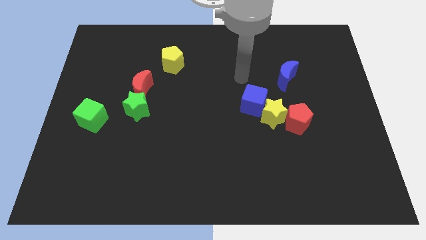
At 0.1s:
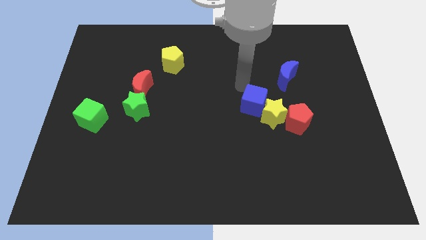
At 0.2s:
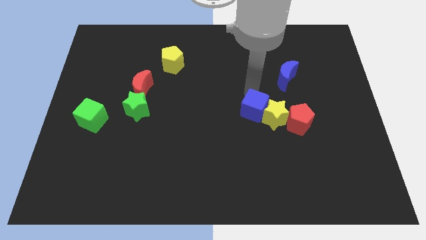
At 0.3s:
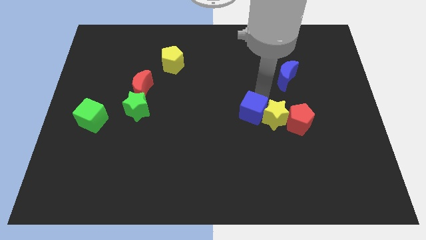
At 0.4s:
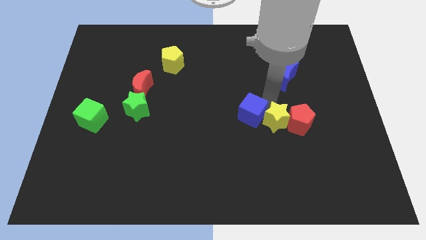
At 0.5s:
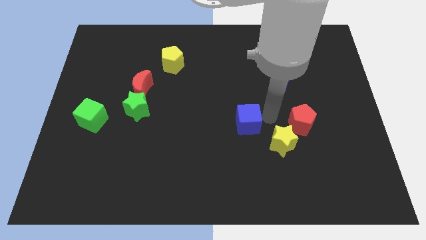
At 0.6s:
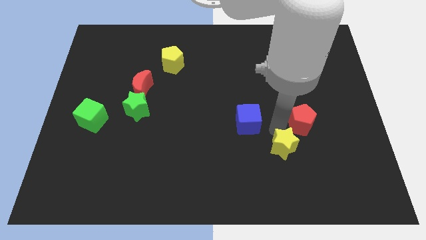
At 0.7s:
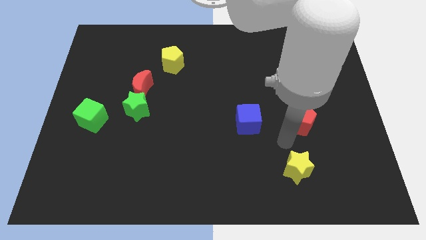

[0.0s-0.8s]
separate the red pentagon from the yellow star

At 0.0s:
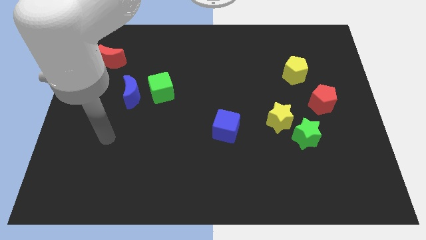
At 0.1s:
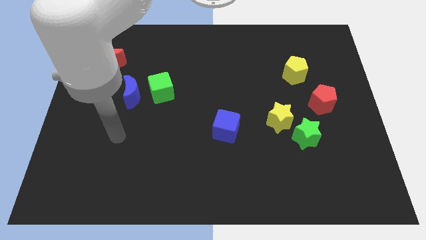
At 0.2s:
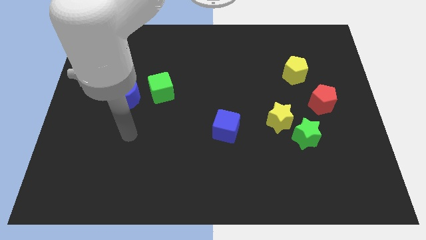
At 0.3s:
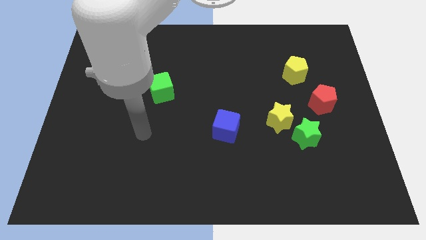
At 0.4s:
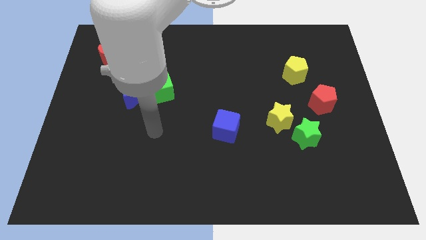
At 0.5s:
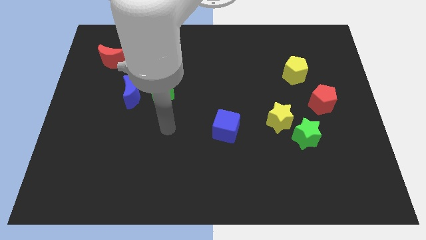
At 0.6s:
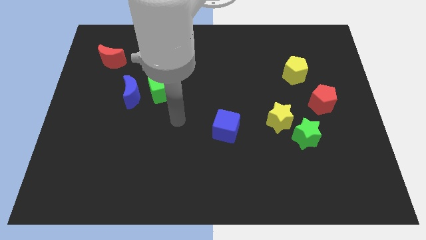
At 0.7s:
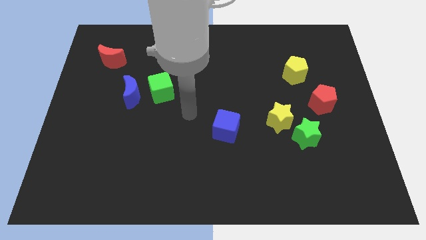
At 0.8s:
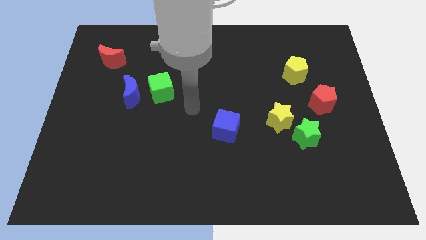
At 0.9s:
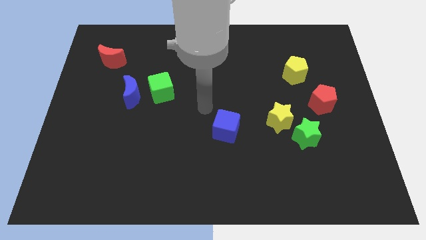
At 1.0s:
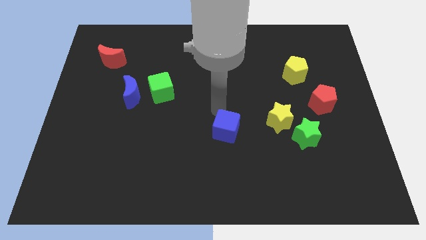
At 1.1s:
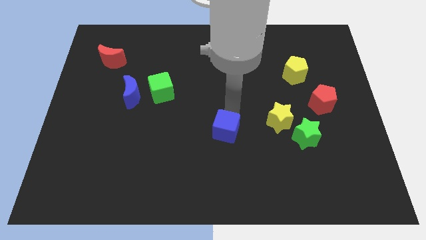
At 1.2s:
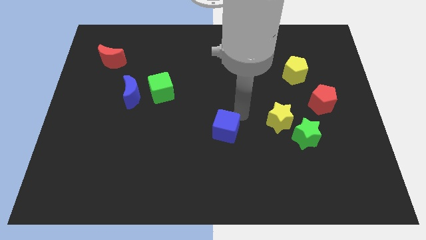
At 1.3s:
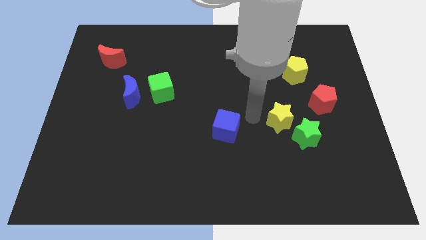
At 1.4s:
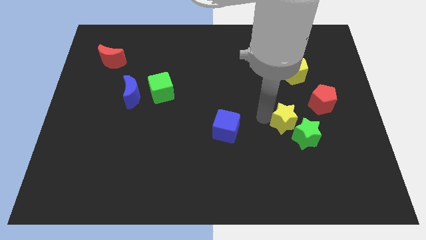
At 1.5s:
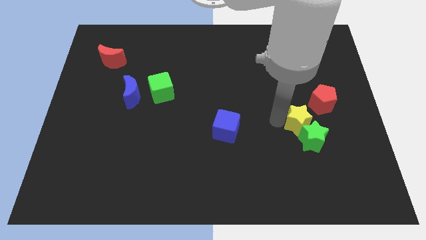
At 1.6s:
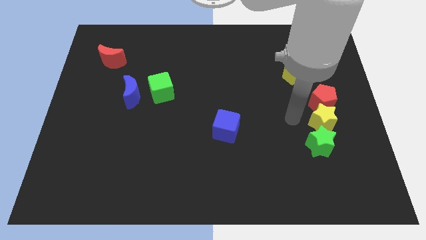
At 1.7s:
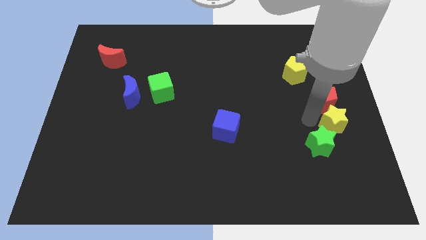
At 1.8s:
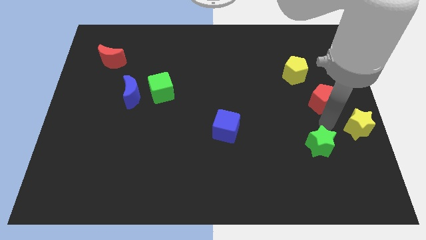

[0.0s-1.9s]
move the green star away from the yellow star

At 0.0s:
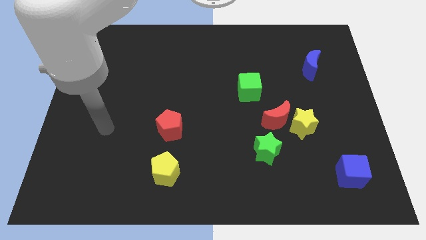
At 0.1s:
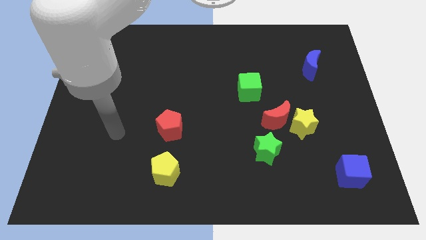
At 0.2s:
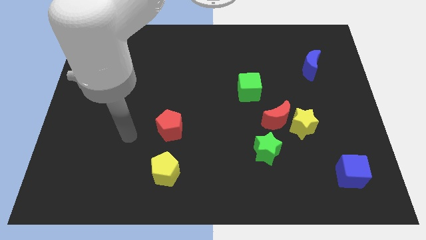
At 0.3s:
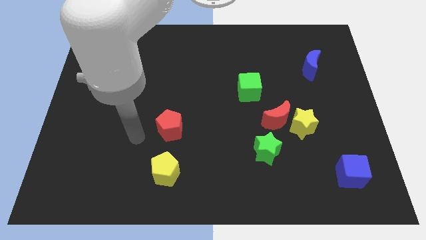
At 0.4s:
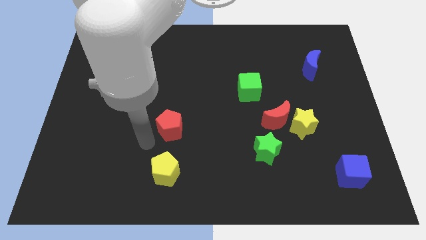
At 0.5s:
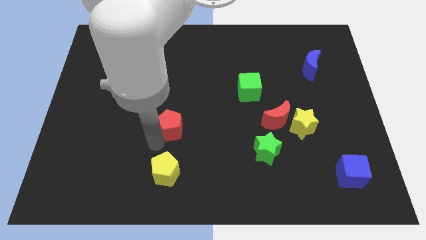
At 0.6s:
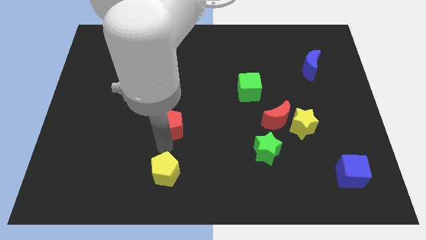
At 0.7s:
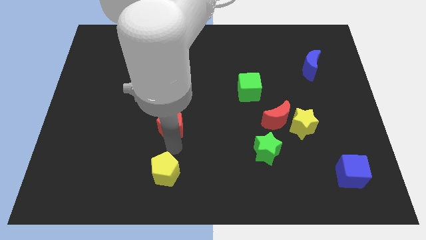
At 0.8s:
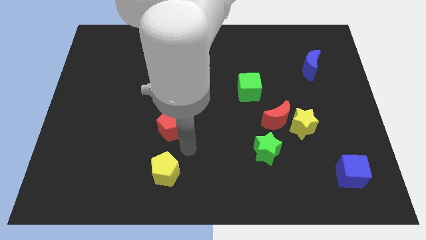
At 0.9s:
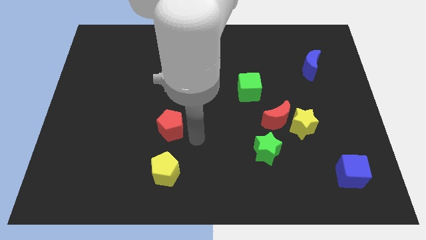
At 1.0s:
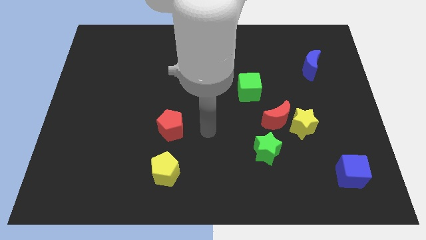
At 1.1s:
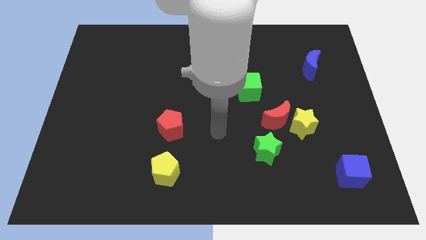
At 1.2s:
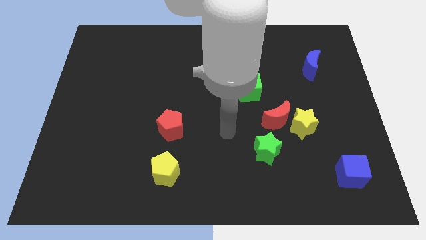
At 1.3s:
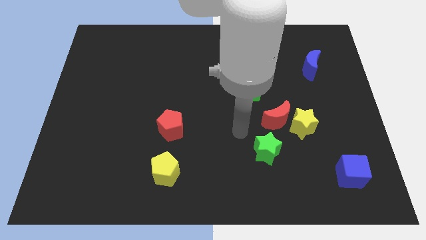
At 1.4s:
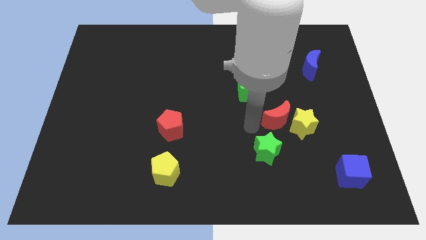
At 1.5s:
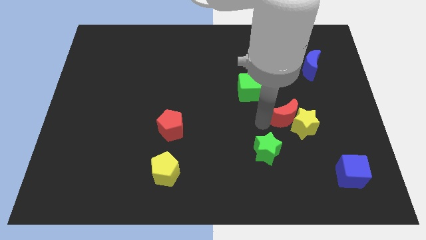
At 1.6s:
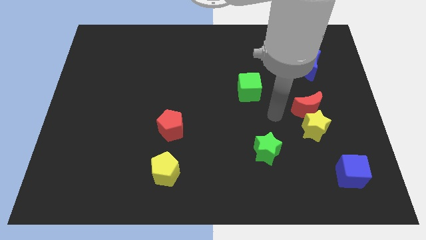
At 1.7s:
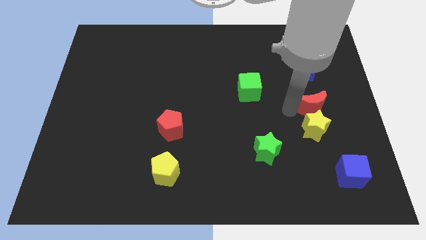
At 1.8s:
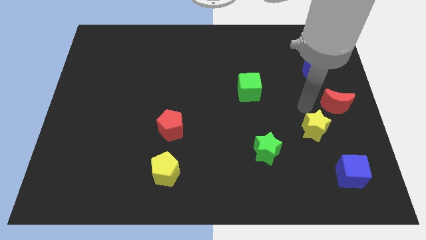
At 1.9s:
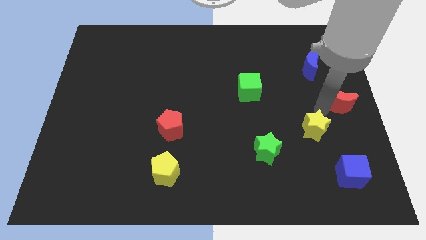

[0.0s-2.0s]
separate the yellow star from the red moon

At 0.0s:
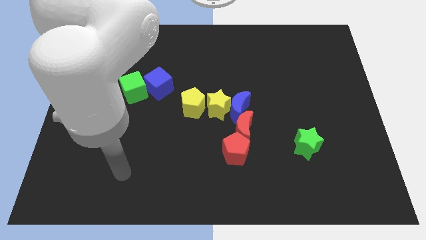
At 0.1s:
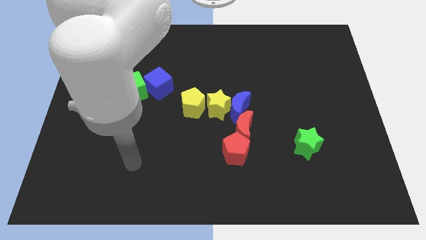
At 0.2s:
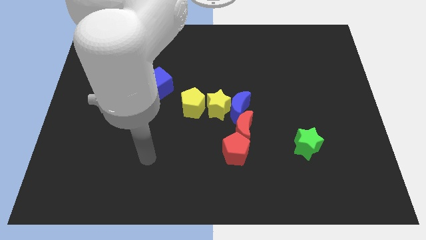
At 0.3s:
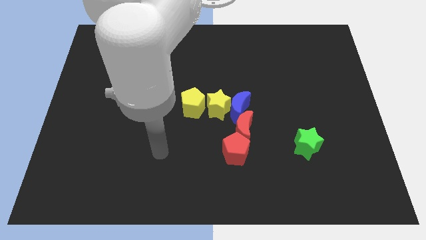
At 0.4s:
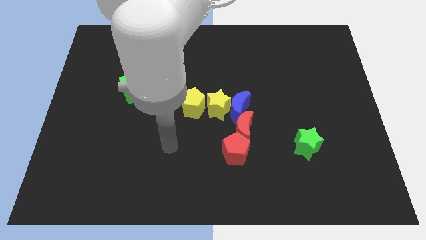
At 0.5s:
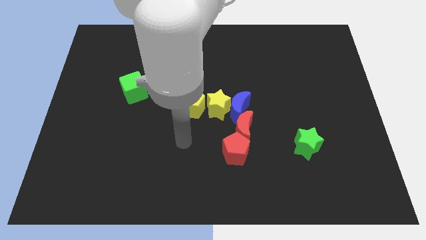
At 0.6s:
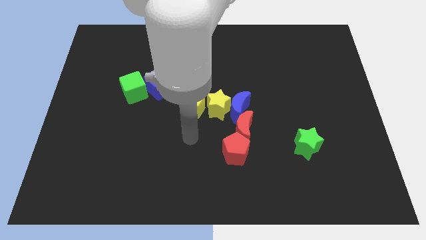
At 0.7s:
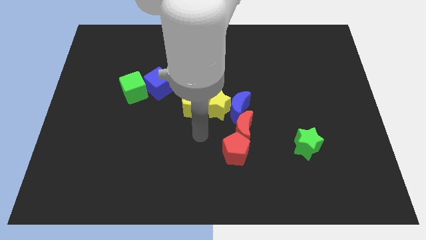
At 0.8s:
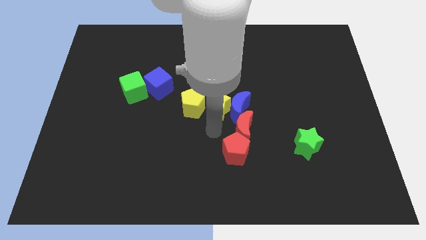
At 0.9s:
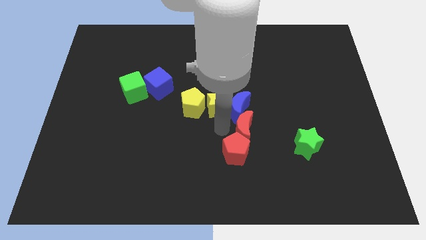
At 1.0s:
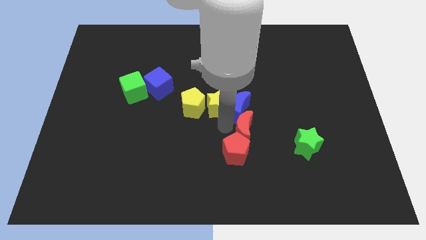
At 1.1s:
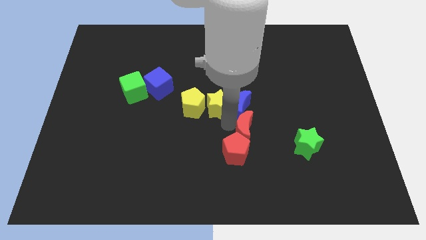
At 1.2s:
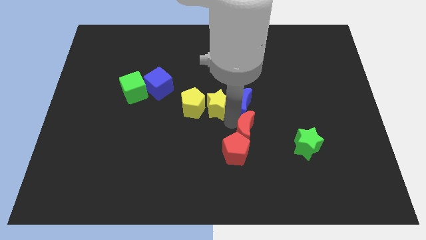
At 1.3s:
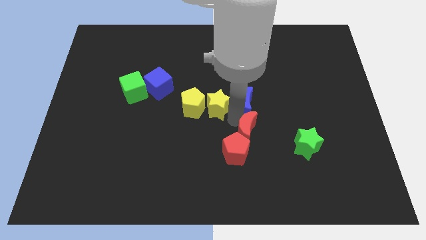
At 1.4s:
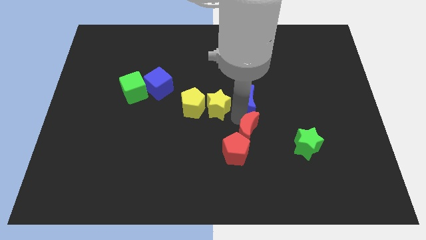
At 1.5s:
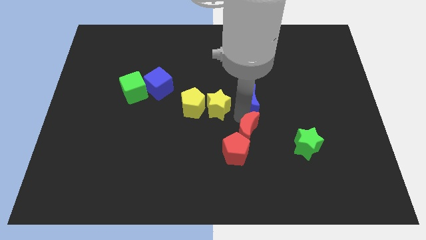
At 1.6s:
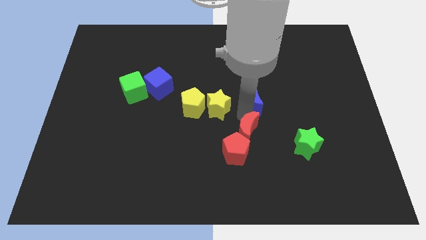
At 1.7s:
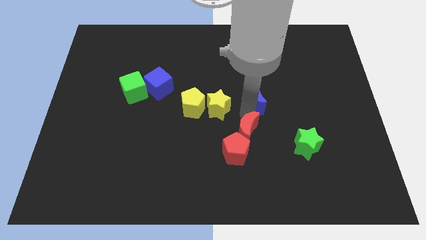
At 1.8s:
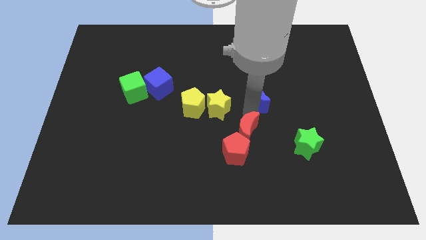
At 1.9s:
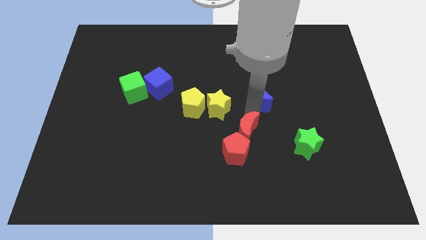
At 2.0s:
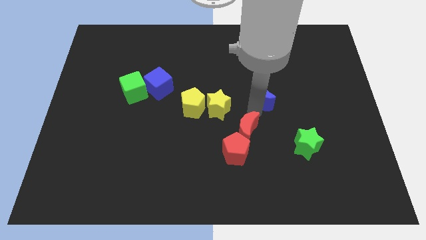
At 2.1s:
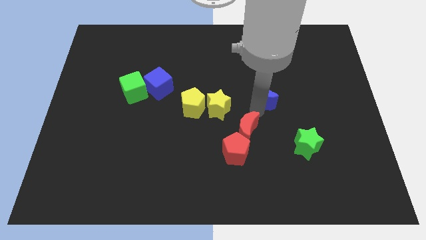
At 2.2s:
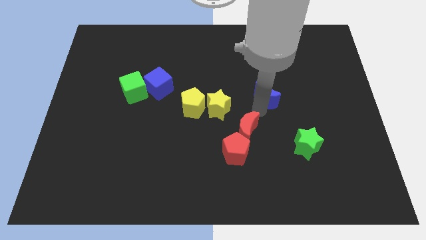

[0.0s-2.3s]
pull the blue moon apart from the yellow star and red moon

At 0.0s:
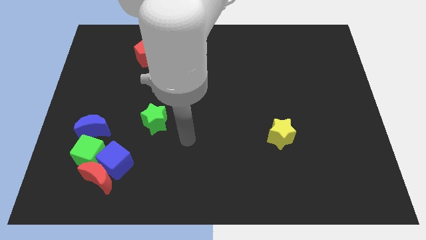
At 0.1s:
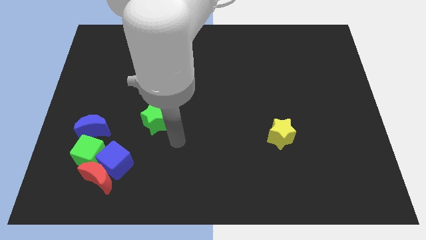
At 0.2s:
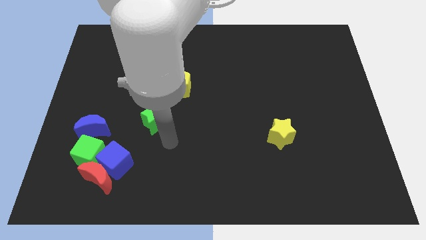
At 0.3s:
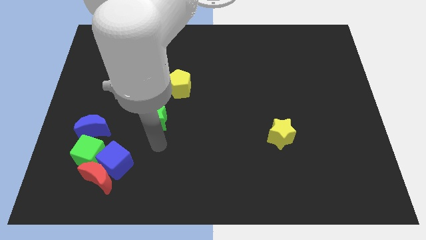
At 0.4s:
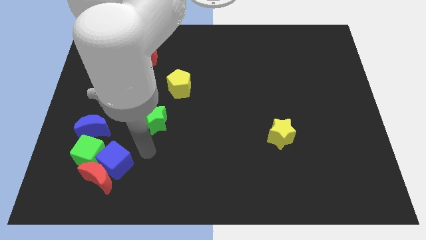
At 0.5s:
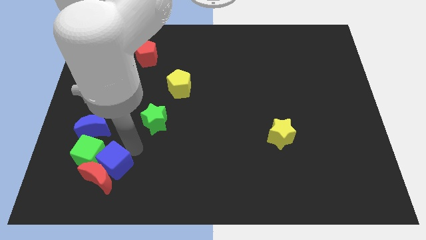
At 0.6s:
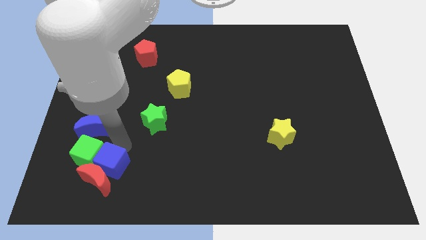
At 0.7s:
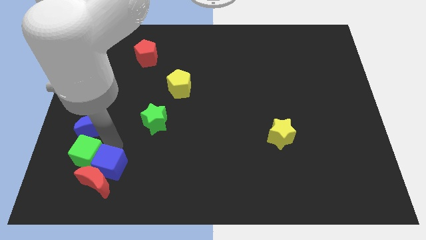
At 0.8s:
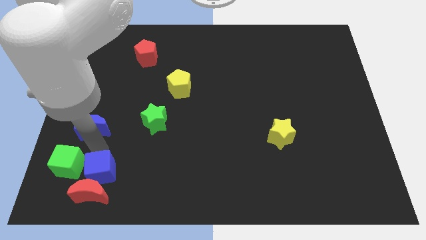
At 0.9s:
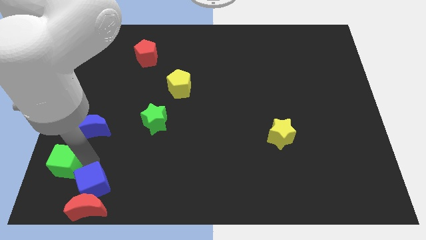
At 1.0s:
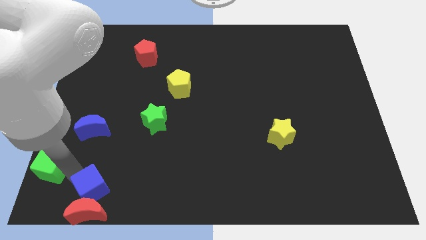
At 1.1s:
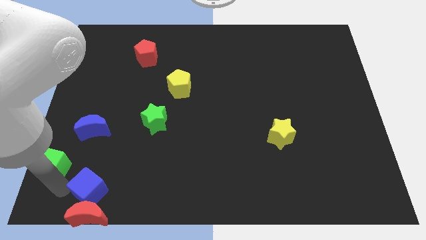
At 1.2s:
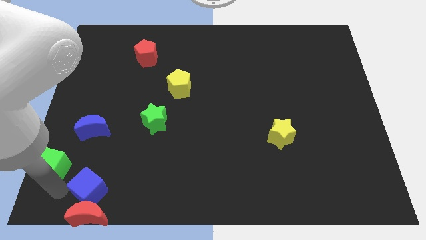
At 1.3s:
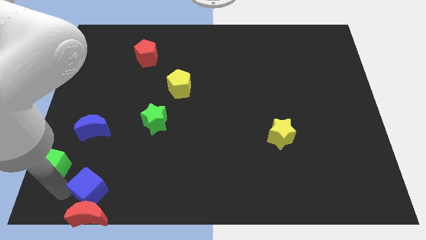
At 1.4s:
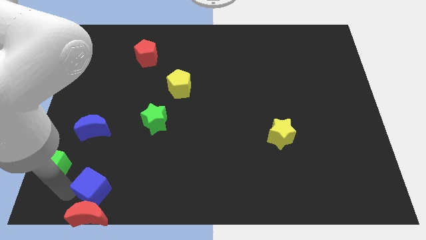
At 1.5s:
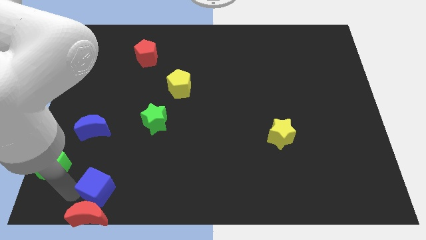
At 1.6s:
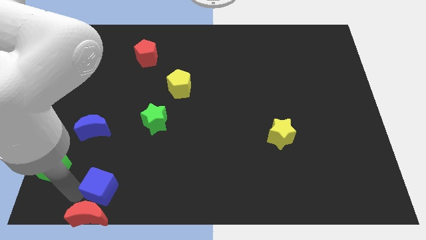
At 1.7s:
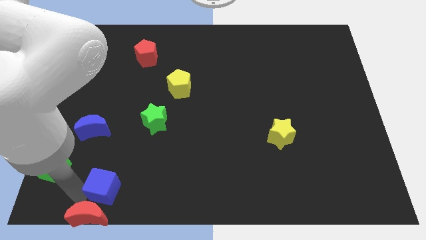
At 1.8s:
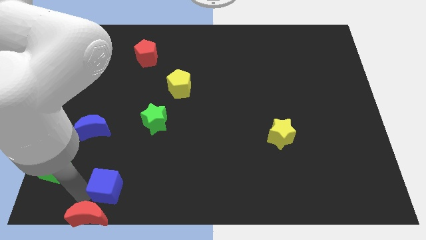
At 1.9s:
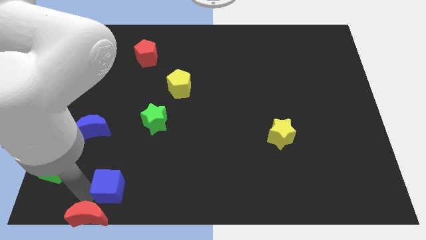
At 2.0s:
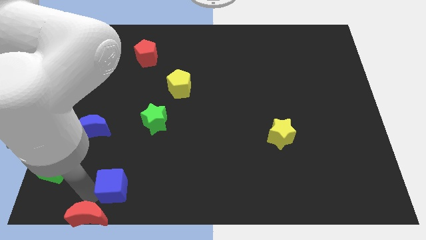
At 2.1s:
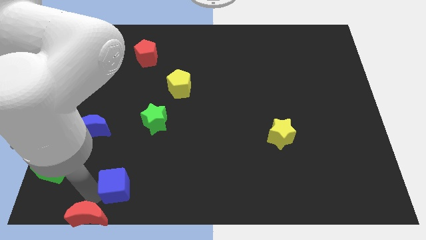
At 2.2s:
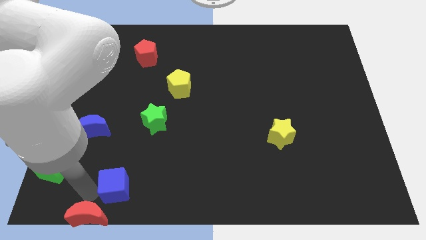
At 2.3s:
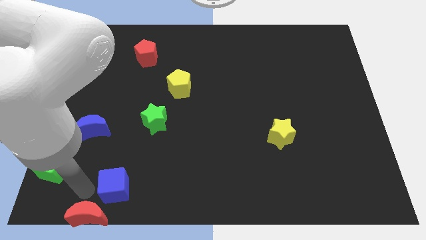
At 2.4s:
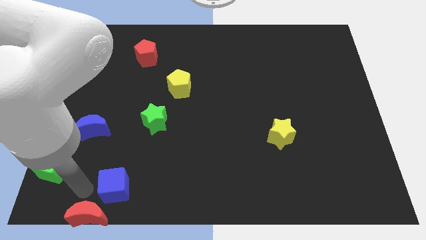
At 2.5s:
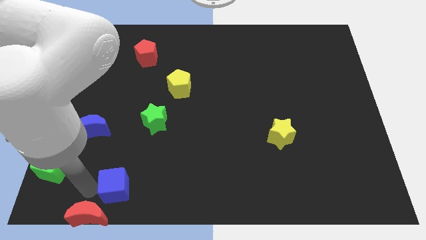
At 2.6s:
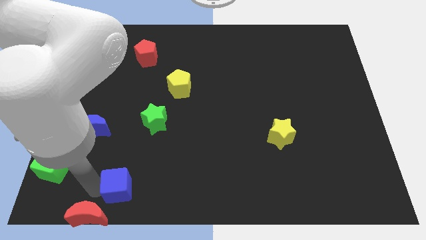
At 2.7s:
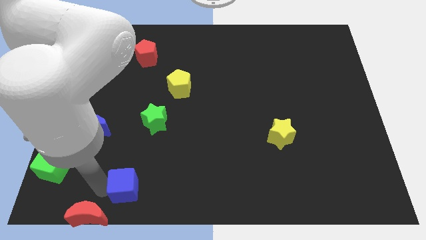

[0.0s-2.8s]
move the blue cube away from the red moon and green cube
